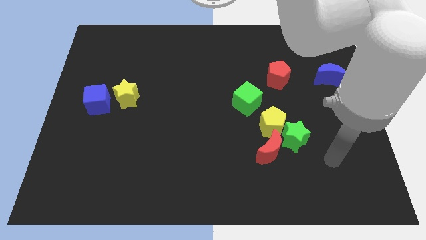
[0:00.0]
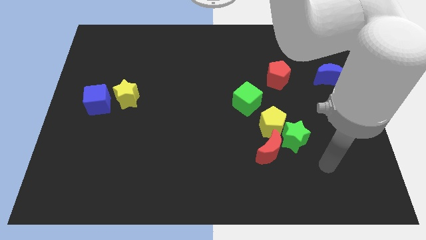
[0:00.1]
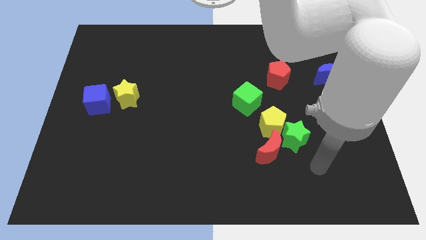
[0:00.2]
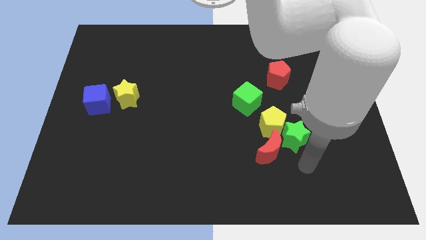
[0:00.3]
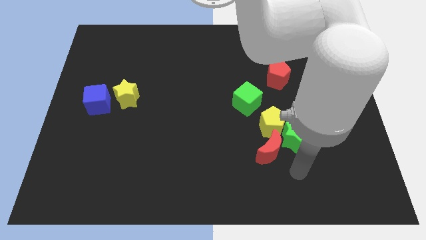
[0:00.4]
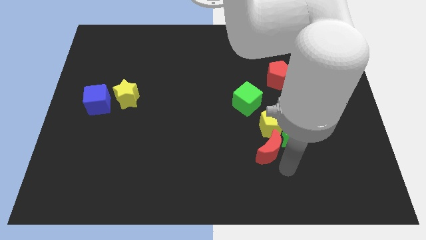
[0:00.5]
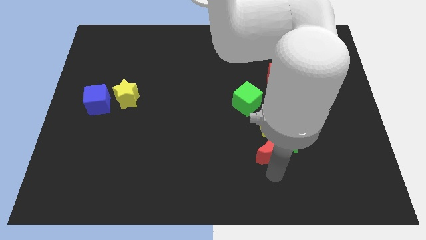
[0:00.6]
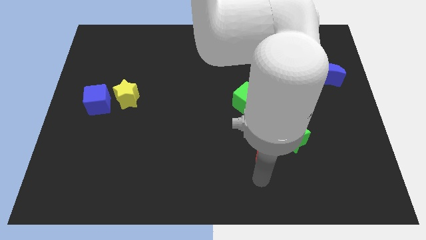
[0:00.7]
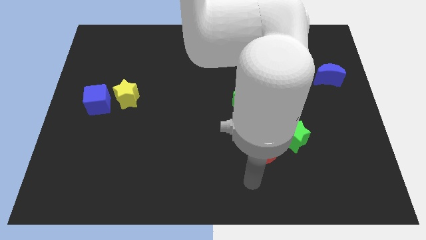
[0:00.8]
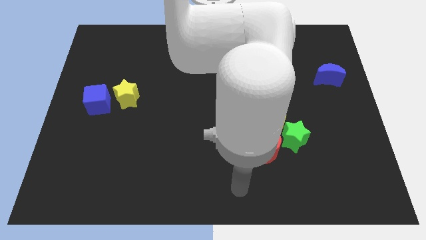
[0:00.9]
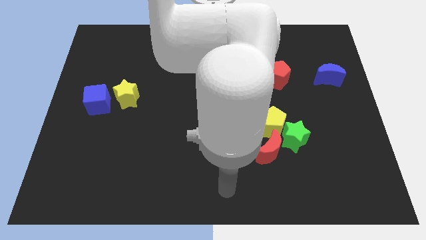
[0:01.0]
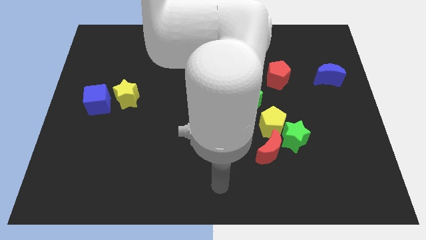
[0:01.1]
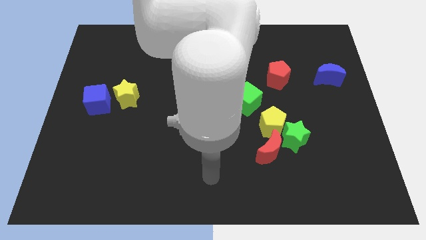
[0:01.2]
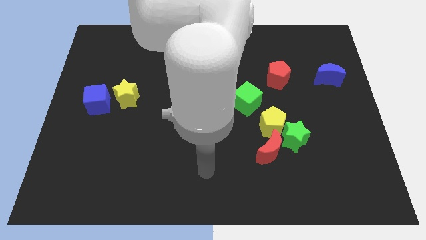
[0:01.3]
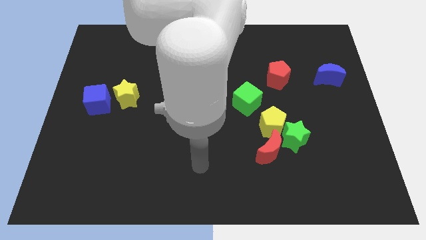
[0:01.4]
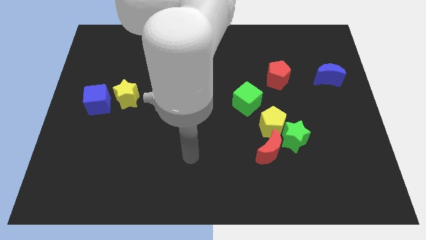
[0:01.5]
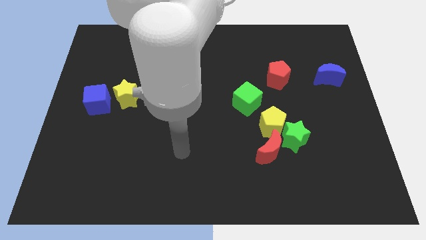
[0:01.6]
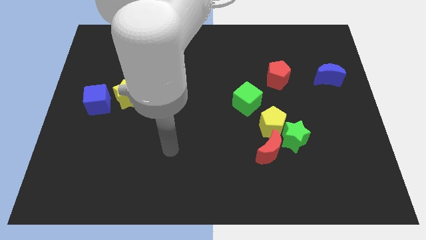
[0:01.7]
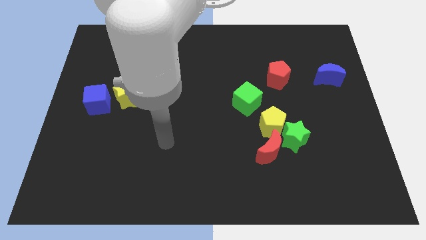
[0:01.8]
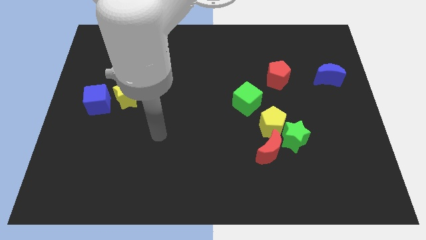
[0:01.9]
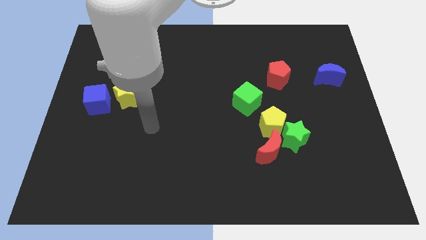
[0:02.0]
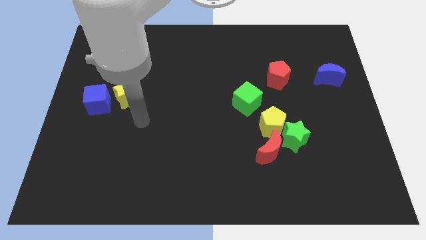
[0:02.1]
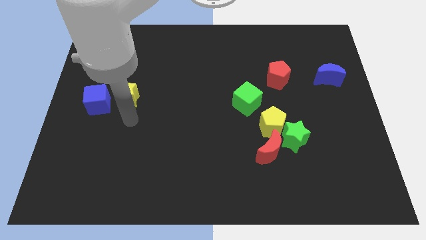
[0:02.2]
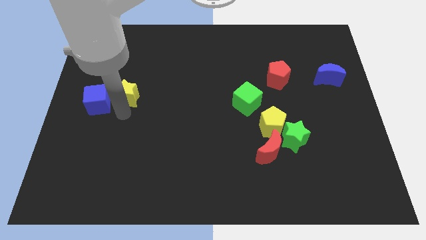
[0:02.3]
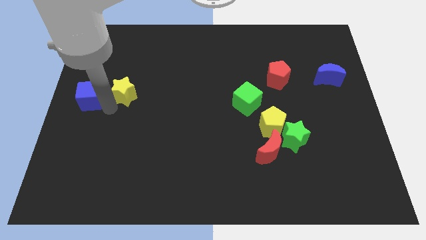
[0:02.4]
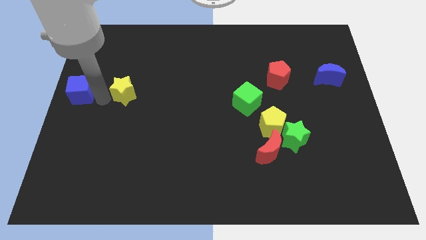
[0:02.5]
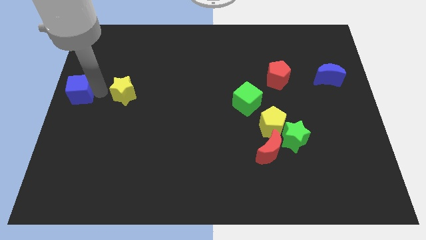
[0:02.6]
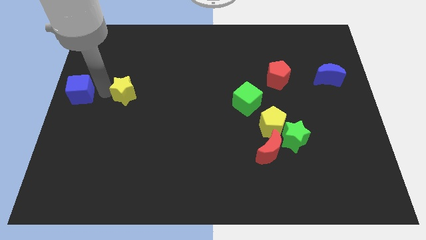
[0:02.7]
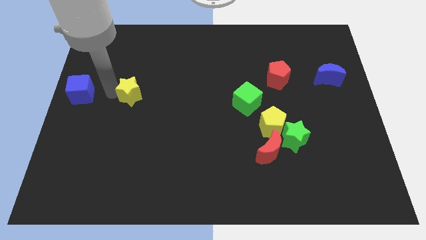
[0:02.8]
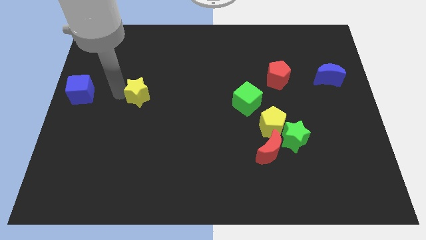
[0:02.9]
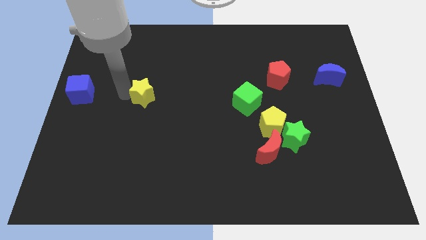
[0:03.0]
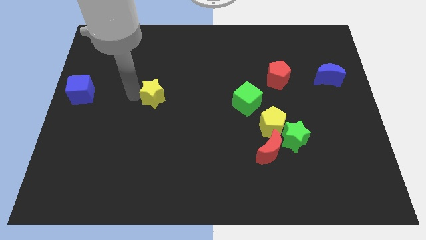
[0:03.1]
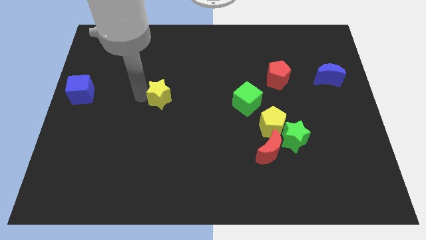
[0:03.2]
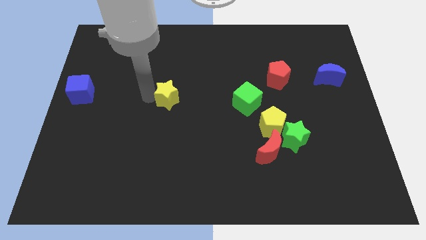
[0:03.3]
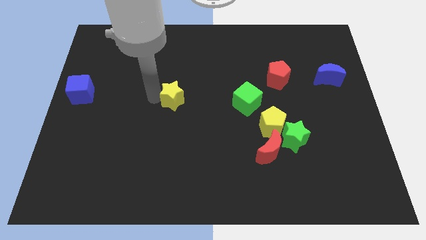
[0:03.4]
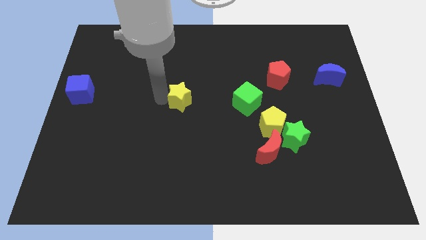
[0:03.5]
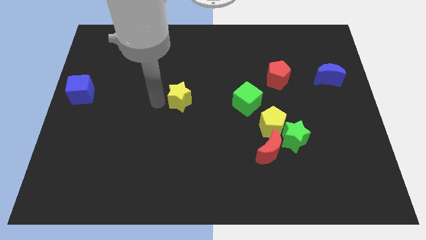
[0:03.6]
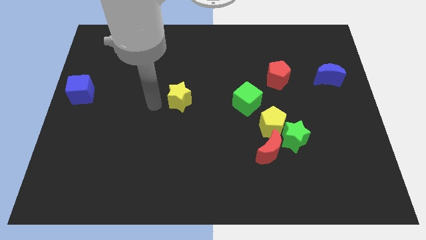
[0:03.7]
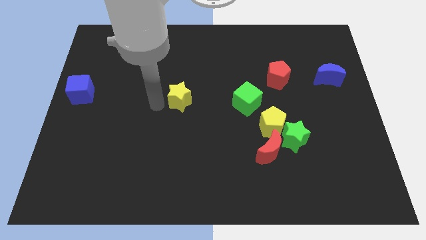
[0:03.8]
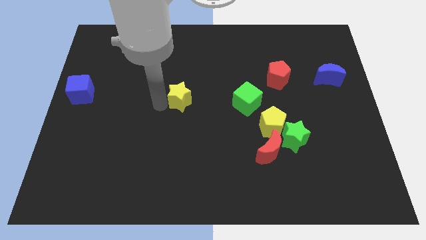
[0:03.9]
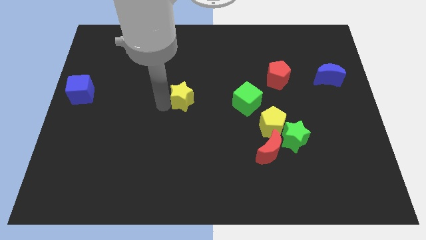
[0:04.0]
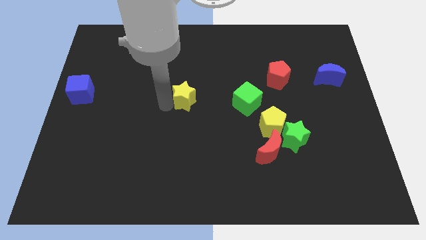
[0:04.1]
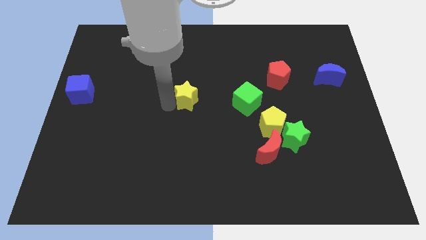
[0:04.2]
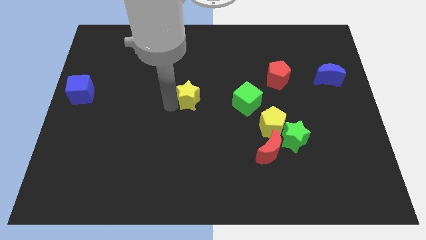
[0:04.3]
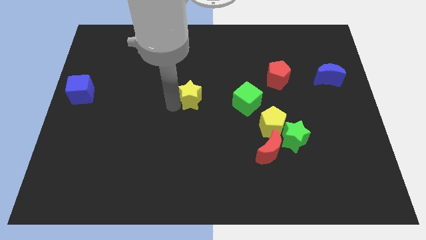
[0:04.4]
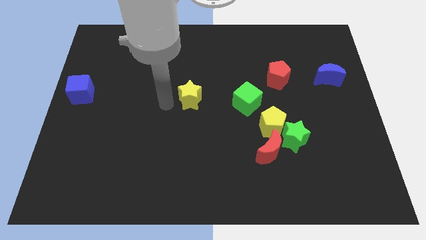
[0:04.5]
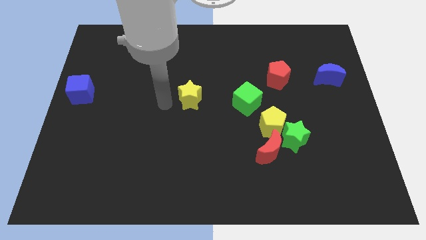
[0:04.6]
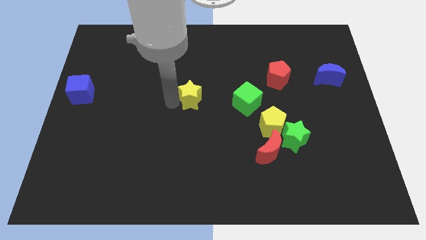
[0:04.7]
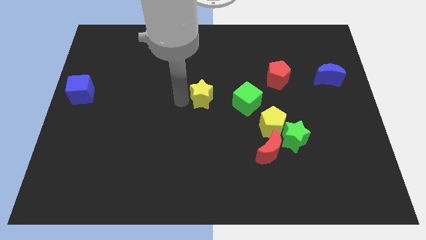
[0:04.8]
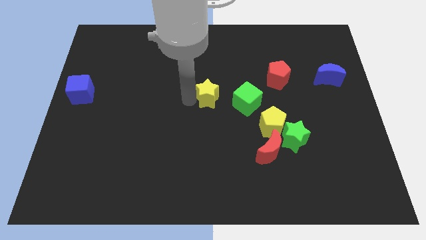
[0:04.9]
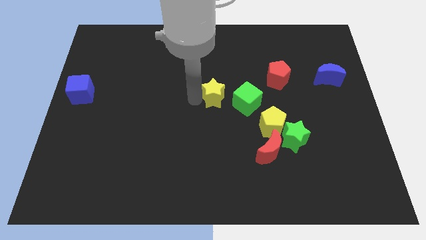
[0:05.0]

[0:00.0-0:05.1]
push the yellow star right

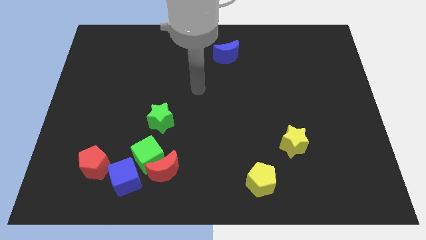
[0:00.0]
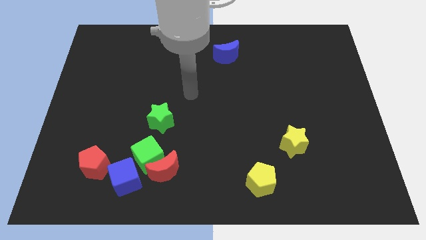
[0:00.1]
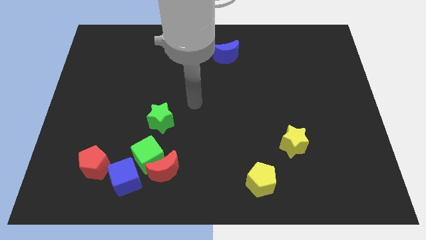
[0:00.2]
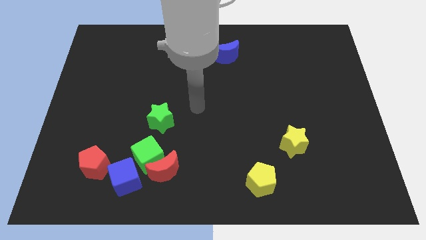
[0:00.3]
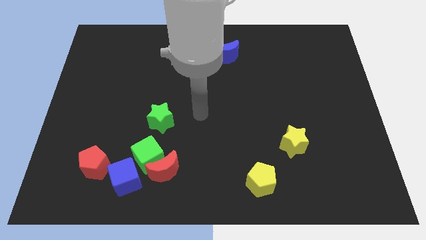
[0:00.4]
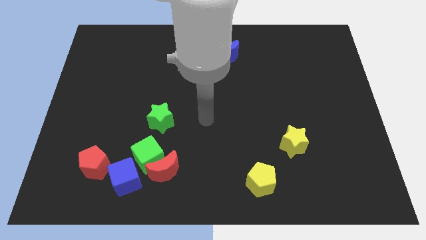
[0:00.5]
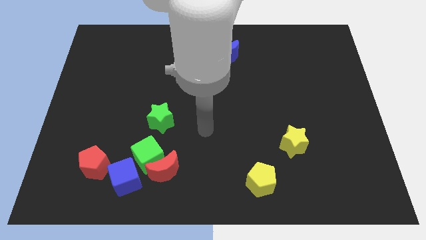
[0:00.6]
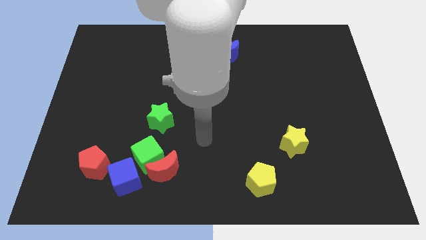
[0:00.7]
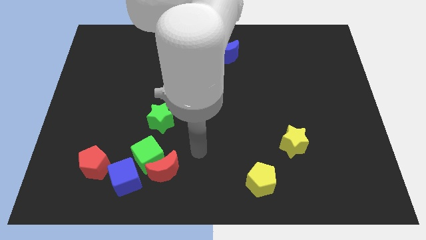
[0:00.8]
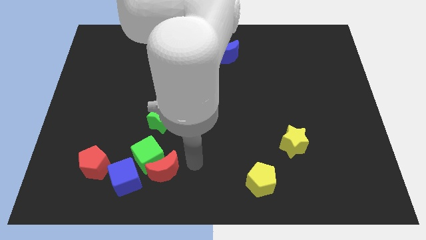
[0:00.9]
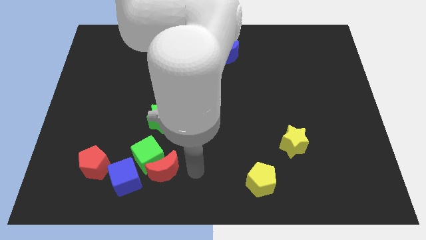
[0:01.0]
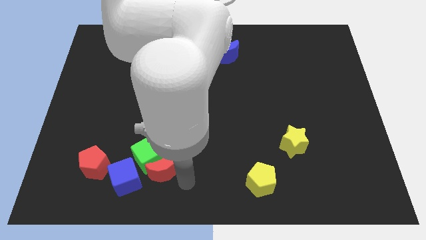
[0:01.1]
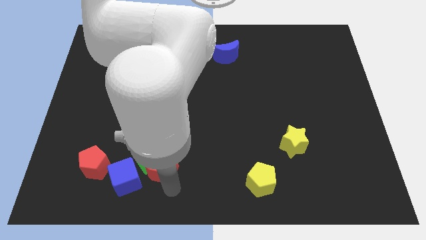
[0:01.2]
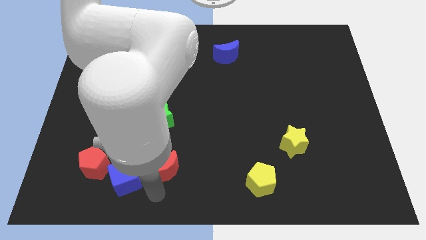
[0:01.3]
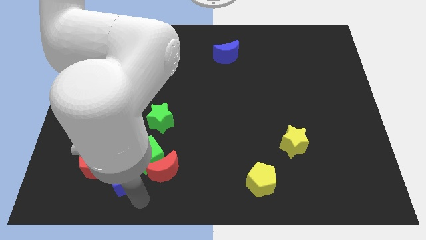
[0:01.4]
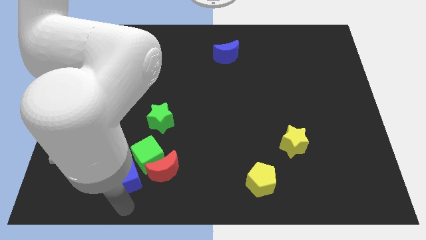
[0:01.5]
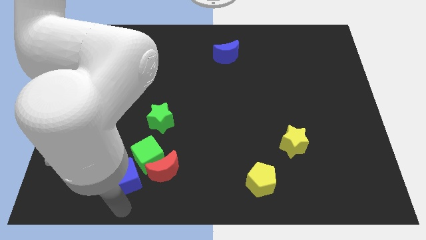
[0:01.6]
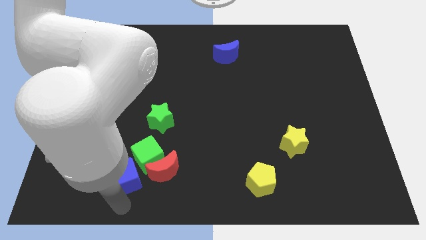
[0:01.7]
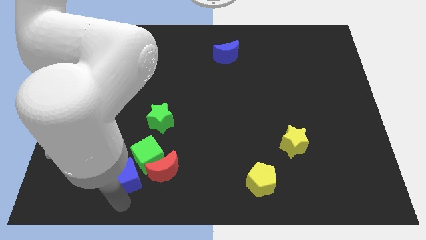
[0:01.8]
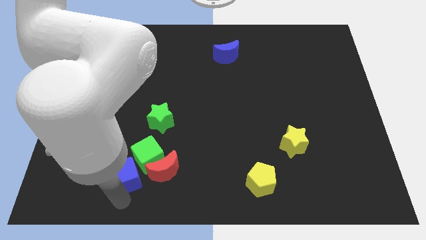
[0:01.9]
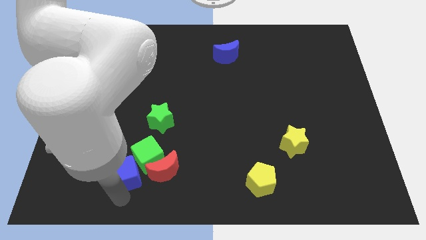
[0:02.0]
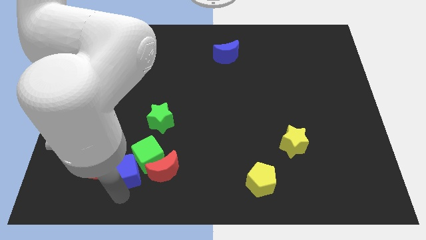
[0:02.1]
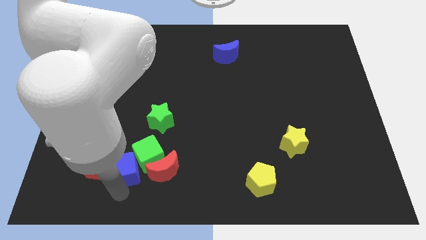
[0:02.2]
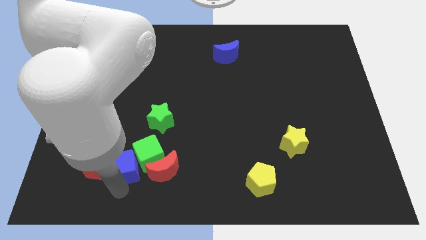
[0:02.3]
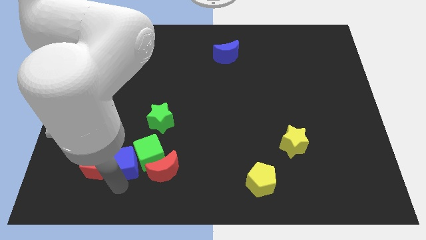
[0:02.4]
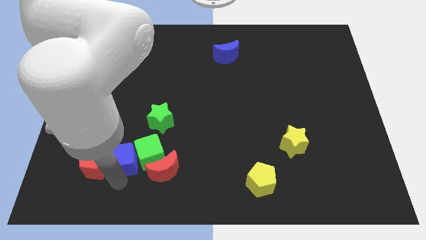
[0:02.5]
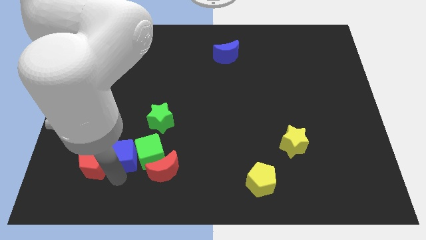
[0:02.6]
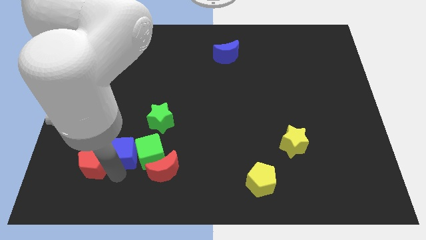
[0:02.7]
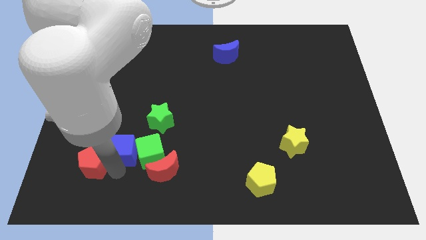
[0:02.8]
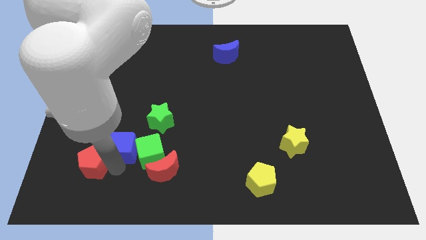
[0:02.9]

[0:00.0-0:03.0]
push the blue cube upwards a bit

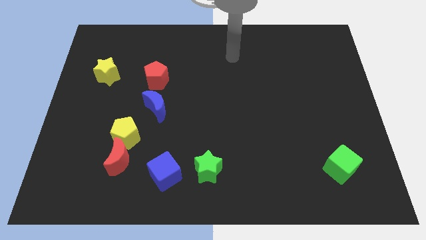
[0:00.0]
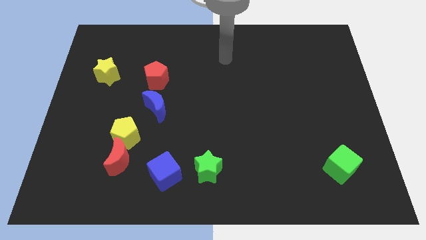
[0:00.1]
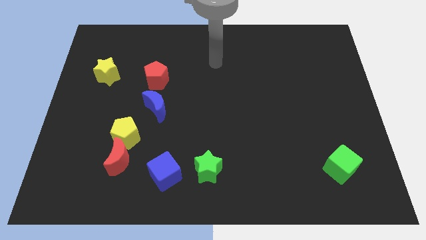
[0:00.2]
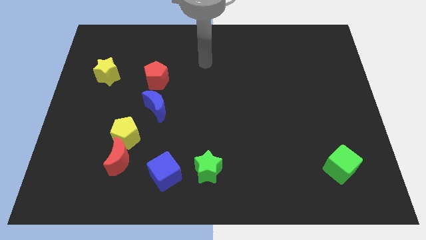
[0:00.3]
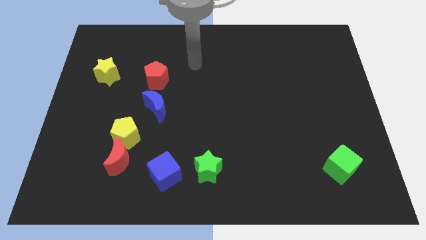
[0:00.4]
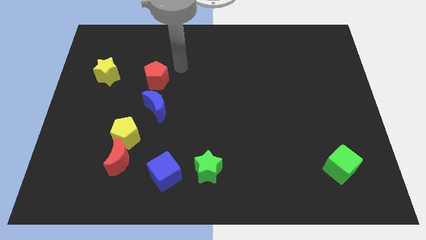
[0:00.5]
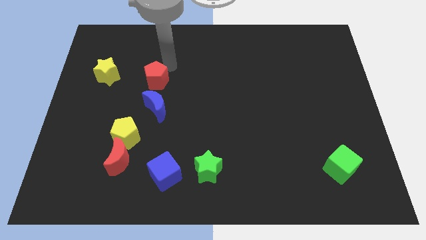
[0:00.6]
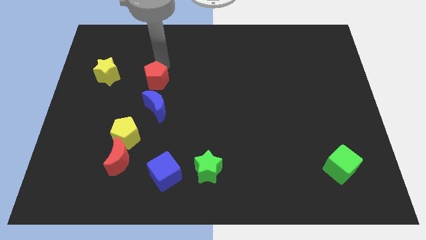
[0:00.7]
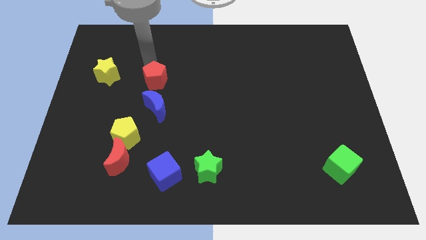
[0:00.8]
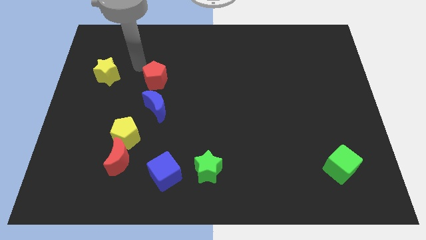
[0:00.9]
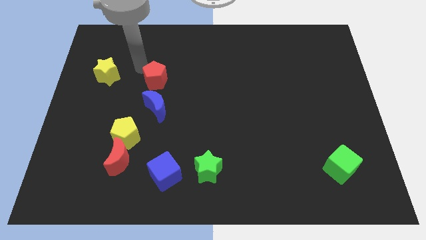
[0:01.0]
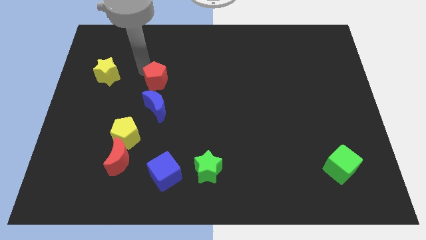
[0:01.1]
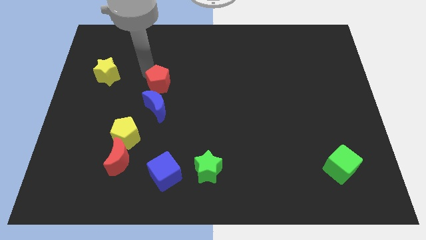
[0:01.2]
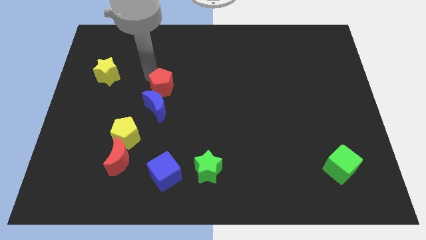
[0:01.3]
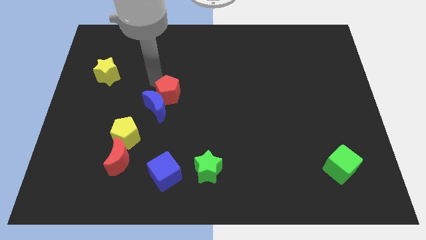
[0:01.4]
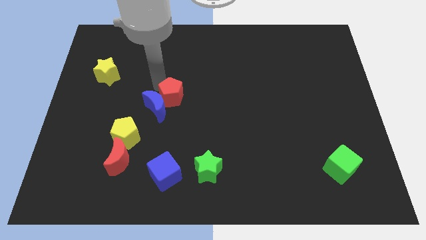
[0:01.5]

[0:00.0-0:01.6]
move the red pentagon a little downwards and to the right
